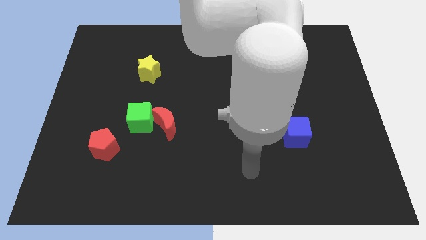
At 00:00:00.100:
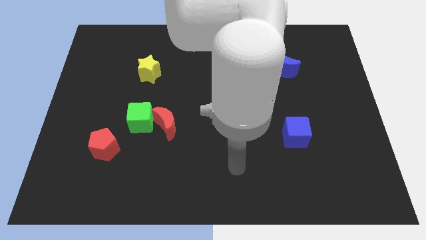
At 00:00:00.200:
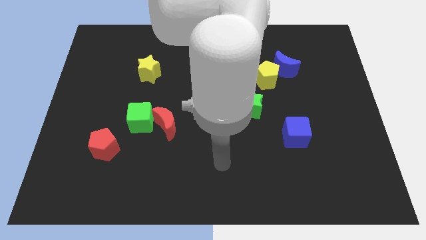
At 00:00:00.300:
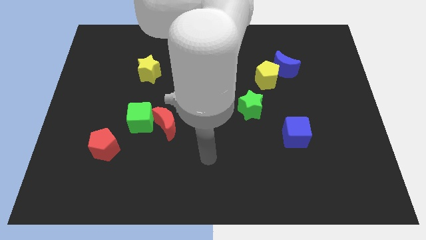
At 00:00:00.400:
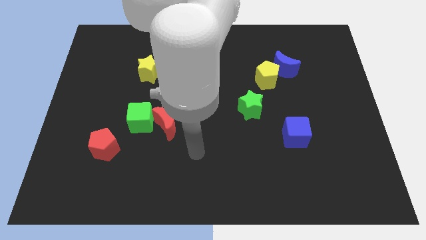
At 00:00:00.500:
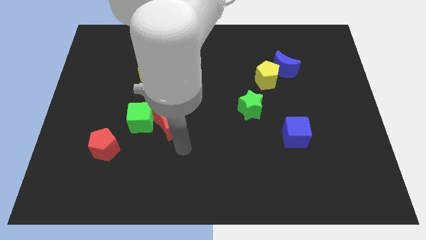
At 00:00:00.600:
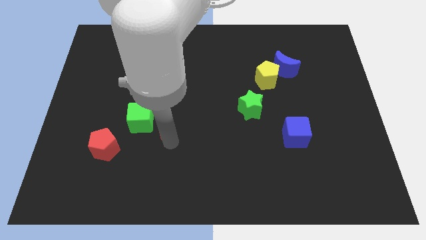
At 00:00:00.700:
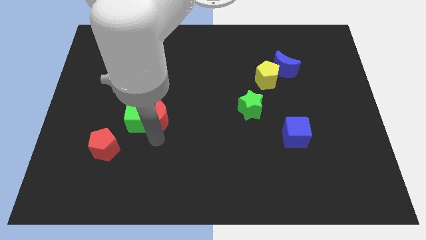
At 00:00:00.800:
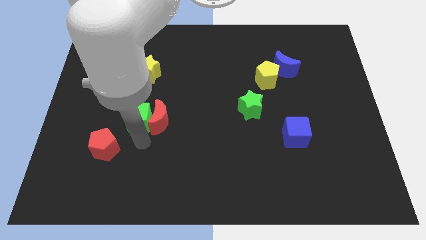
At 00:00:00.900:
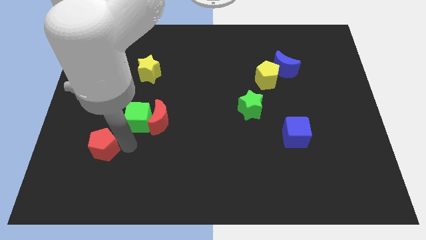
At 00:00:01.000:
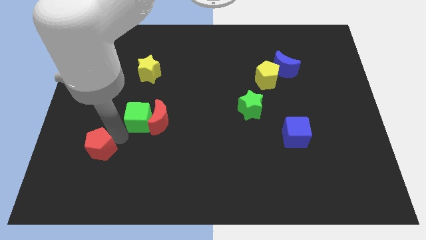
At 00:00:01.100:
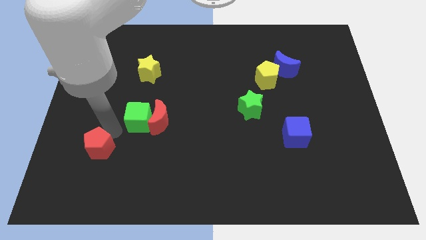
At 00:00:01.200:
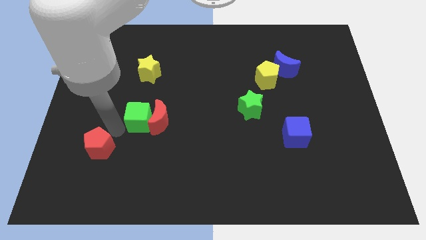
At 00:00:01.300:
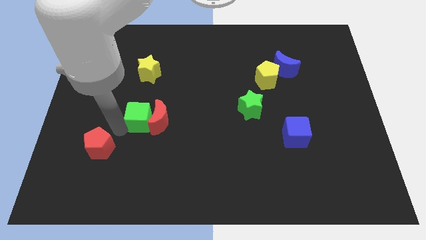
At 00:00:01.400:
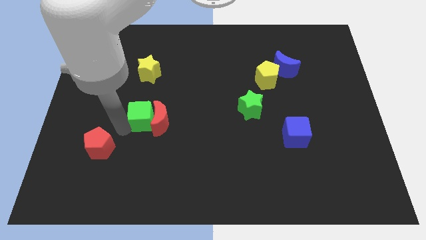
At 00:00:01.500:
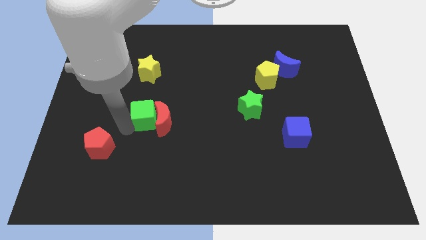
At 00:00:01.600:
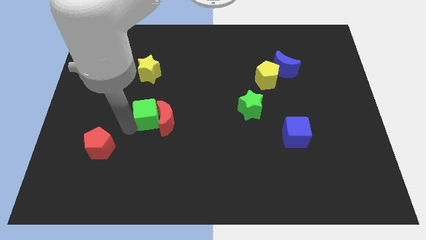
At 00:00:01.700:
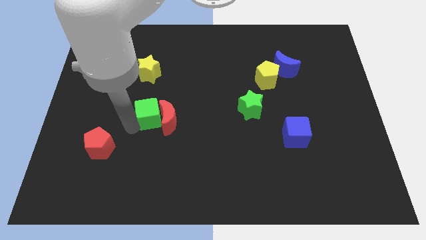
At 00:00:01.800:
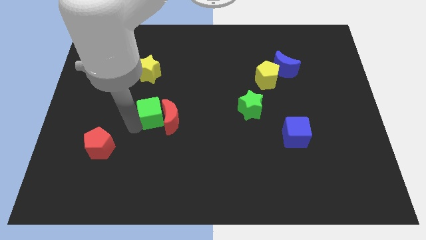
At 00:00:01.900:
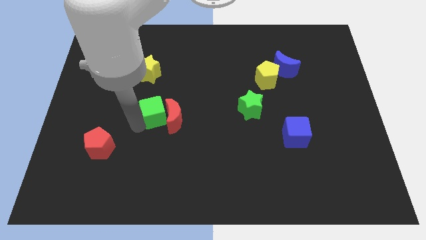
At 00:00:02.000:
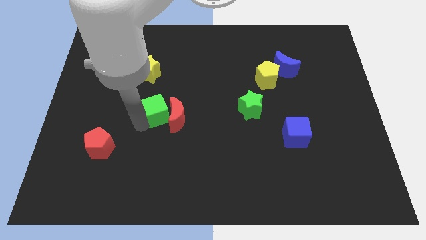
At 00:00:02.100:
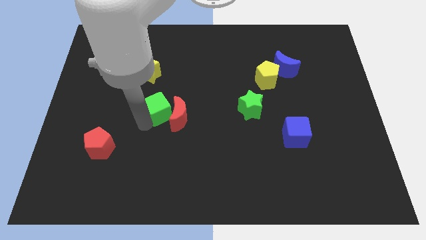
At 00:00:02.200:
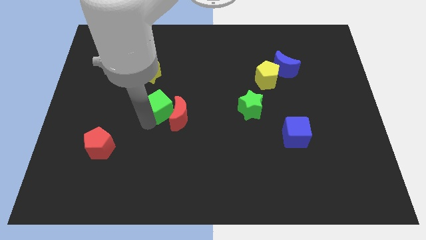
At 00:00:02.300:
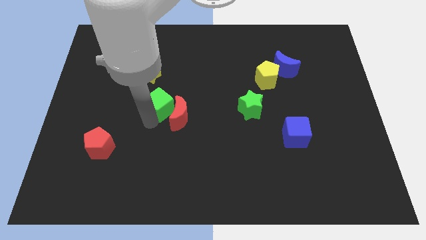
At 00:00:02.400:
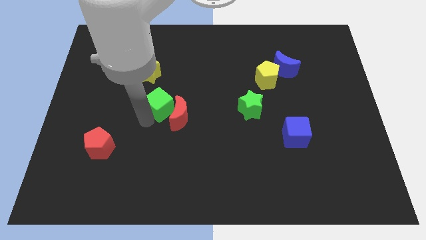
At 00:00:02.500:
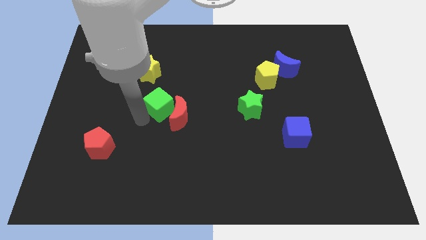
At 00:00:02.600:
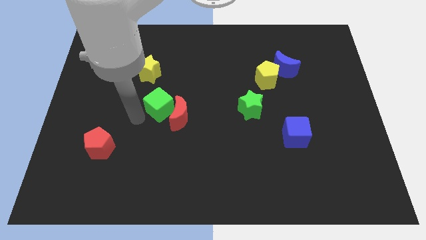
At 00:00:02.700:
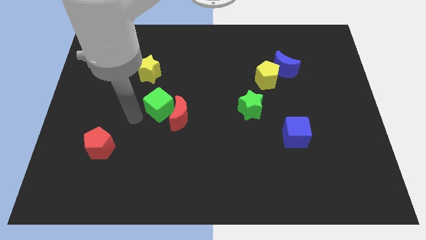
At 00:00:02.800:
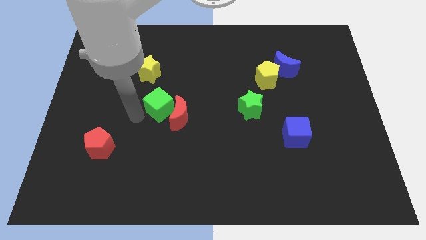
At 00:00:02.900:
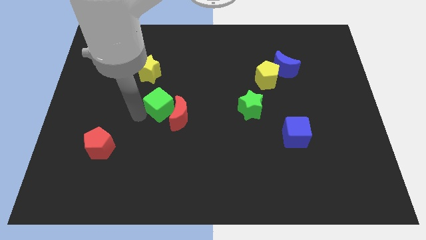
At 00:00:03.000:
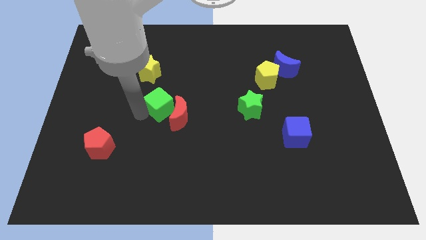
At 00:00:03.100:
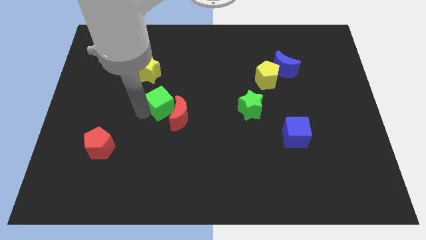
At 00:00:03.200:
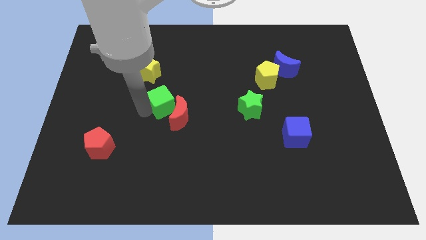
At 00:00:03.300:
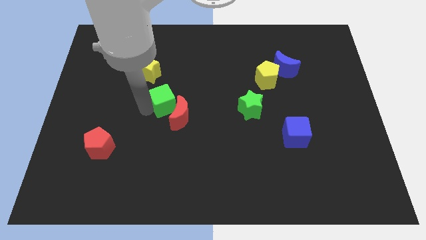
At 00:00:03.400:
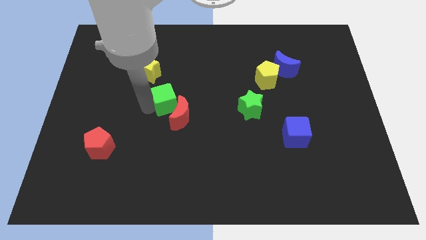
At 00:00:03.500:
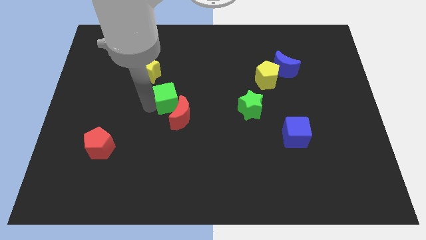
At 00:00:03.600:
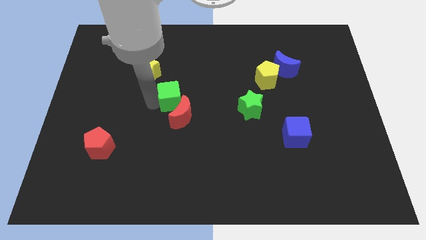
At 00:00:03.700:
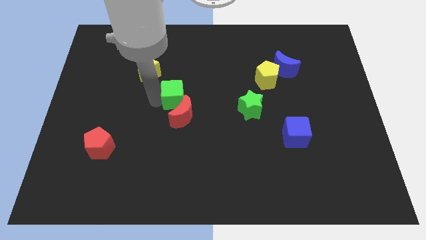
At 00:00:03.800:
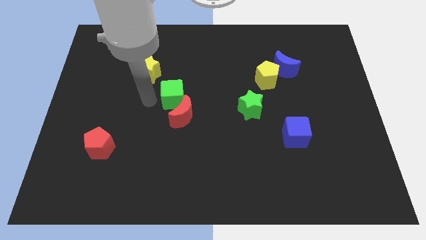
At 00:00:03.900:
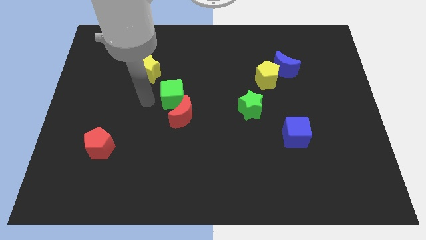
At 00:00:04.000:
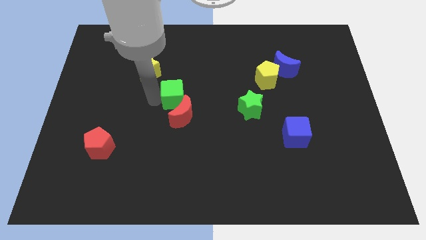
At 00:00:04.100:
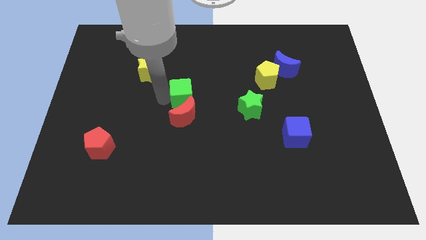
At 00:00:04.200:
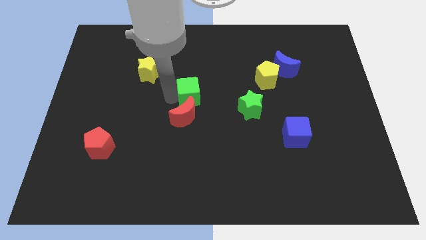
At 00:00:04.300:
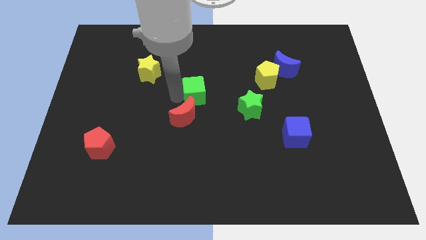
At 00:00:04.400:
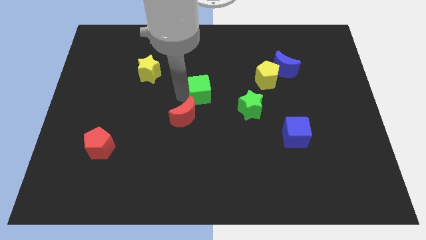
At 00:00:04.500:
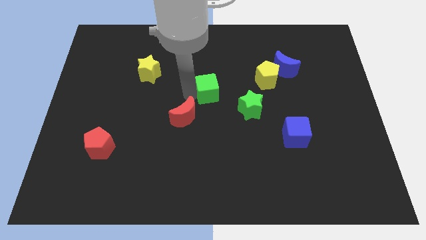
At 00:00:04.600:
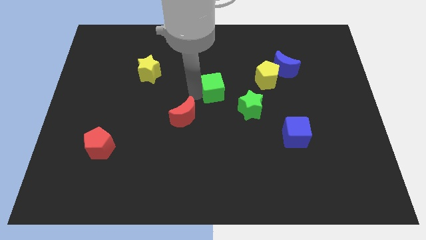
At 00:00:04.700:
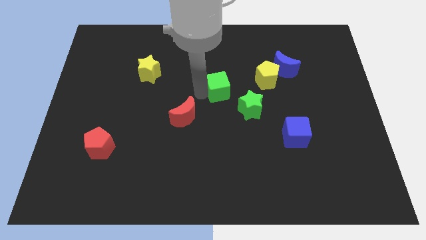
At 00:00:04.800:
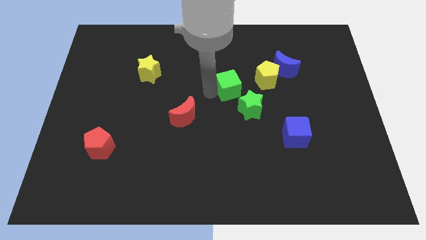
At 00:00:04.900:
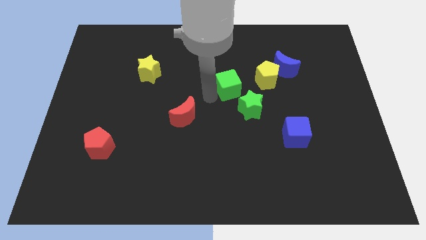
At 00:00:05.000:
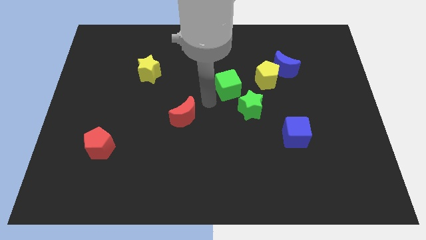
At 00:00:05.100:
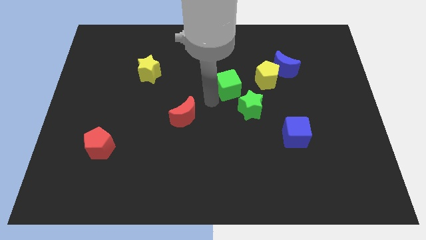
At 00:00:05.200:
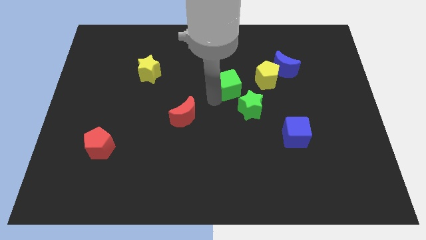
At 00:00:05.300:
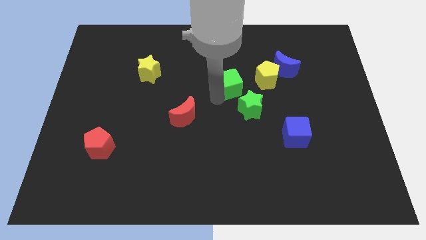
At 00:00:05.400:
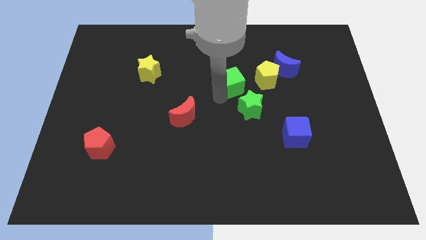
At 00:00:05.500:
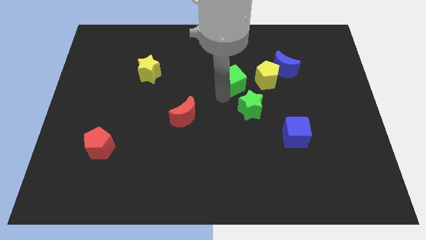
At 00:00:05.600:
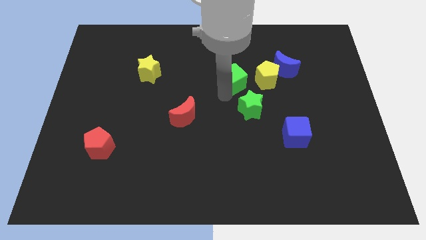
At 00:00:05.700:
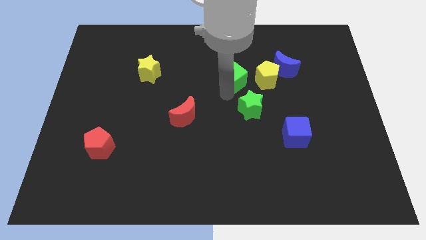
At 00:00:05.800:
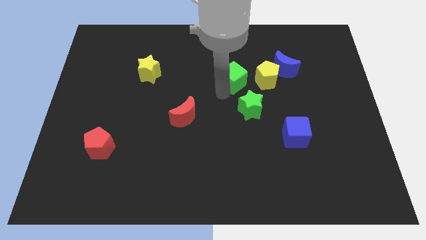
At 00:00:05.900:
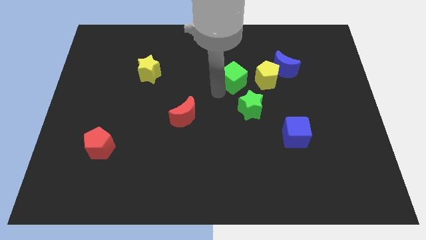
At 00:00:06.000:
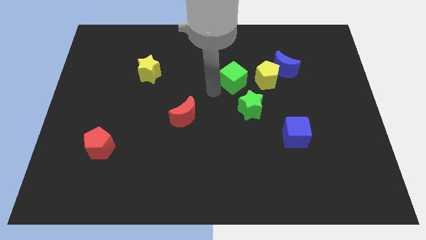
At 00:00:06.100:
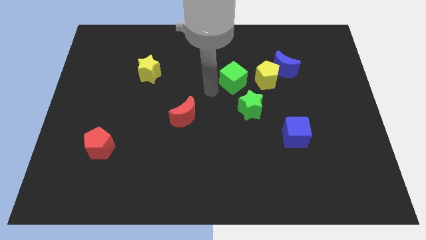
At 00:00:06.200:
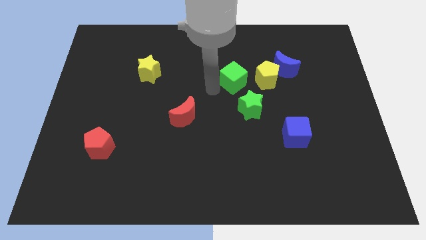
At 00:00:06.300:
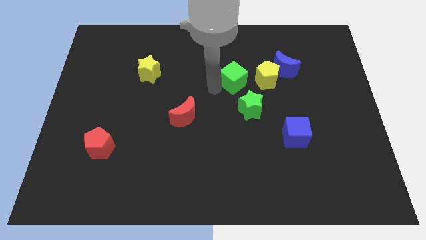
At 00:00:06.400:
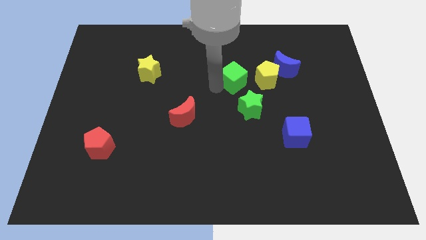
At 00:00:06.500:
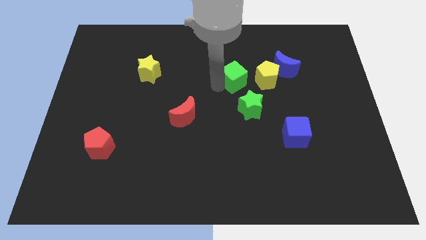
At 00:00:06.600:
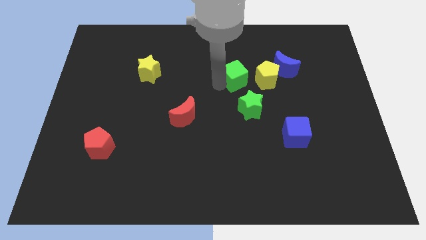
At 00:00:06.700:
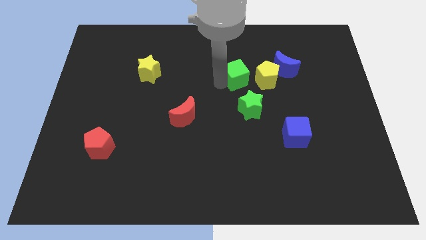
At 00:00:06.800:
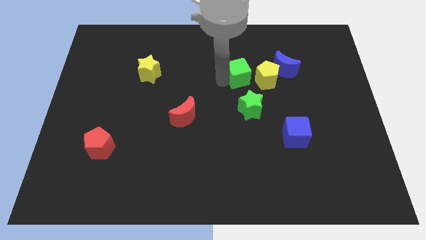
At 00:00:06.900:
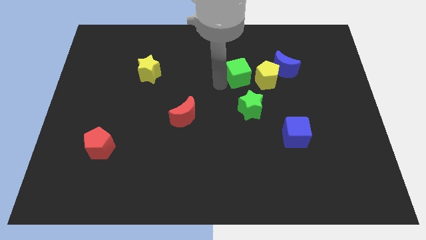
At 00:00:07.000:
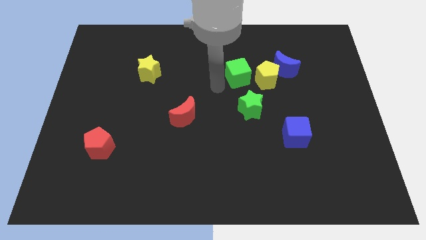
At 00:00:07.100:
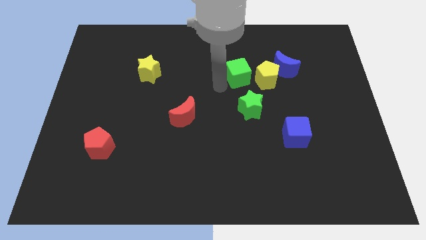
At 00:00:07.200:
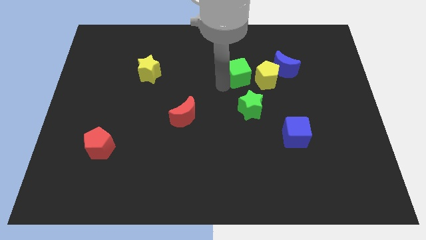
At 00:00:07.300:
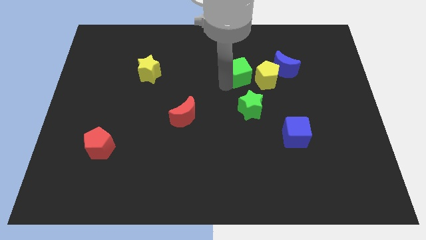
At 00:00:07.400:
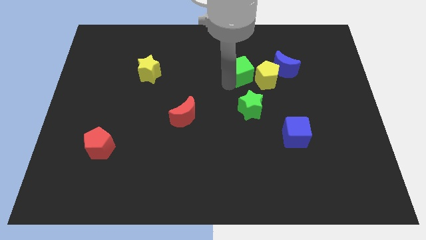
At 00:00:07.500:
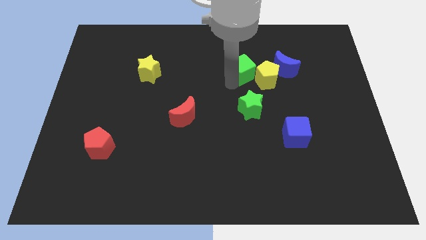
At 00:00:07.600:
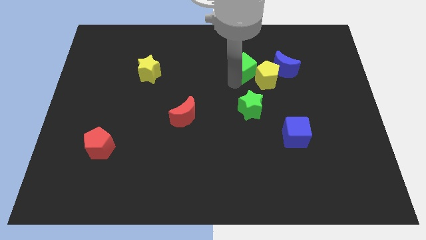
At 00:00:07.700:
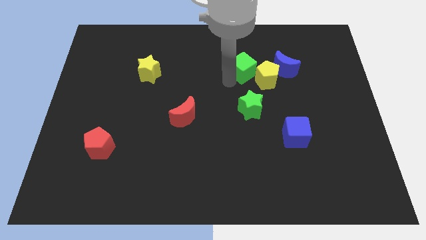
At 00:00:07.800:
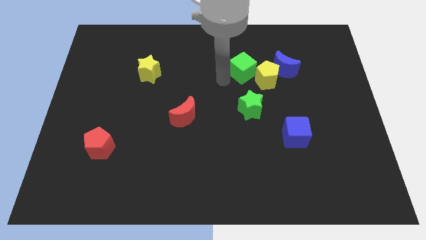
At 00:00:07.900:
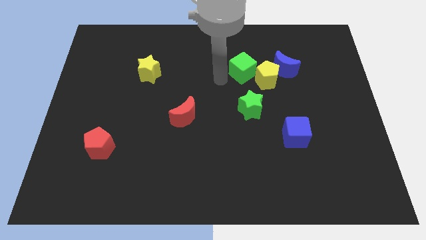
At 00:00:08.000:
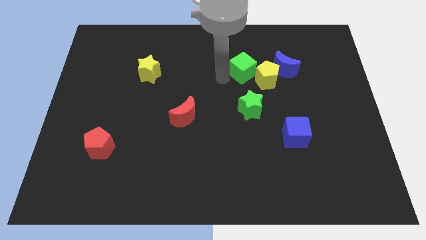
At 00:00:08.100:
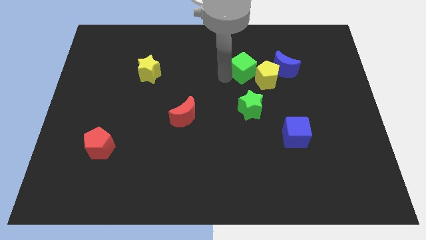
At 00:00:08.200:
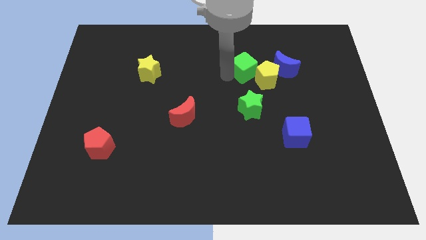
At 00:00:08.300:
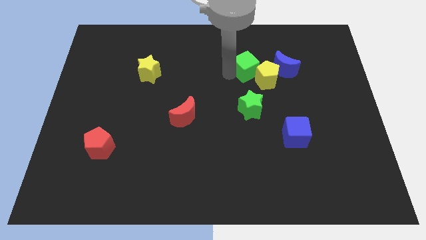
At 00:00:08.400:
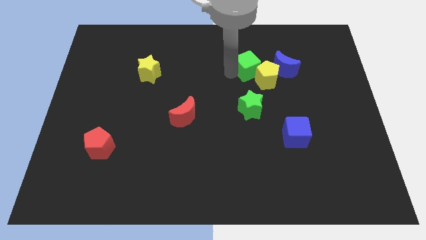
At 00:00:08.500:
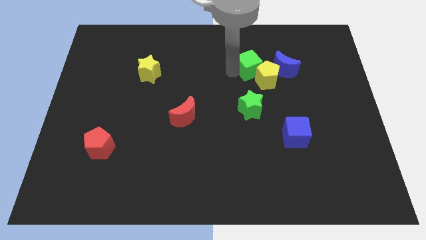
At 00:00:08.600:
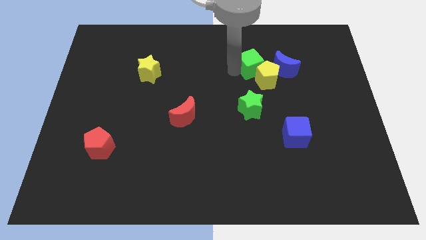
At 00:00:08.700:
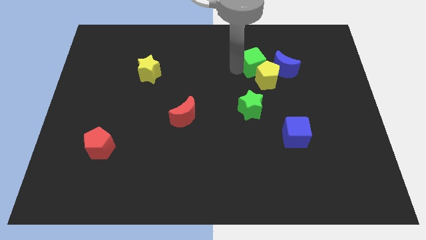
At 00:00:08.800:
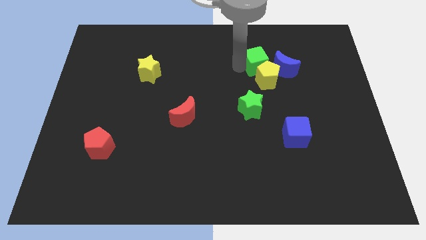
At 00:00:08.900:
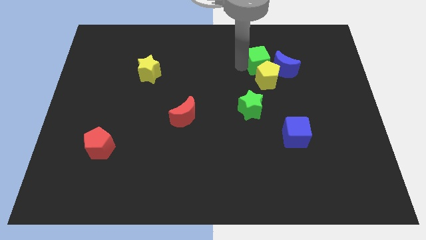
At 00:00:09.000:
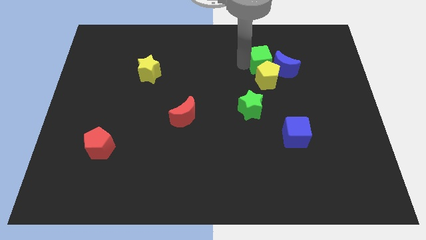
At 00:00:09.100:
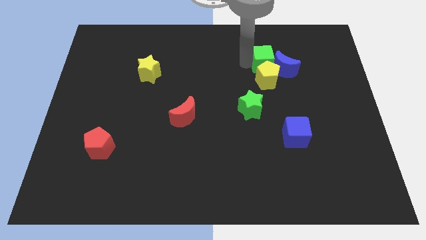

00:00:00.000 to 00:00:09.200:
push the green cube close to the blue moon
